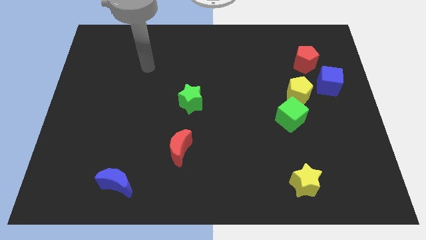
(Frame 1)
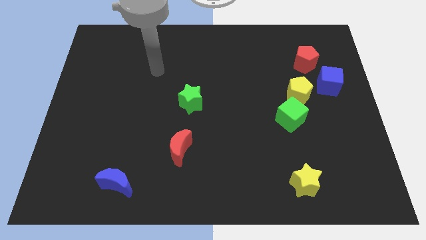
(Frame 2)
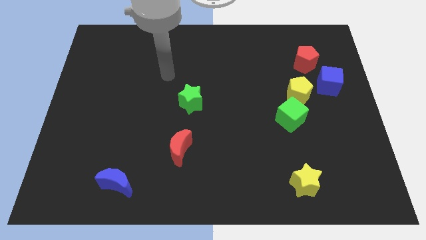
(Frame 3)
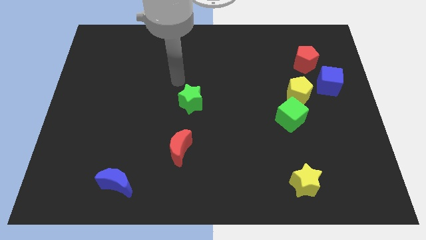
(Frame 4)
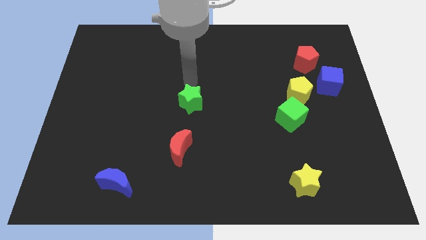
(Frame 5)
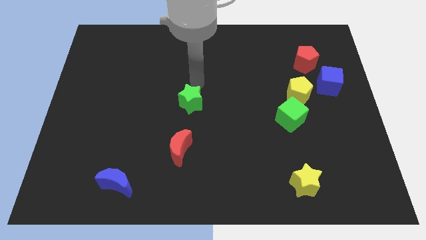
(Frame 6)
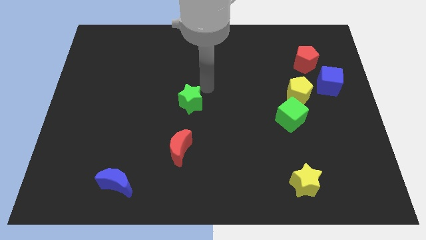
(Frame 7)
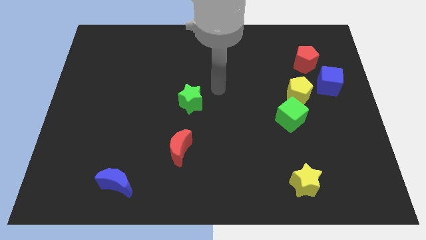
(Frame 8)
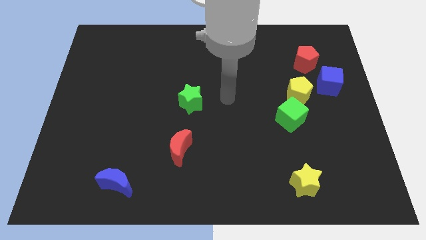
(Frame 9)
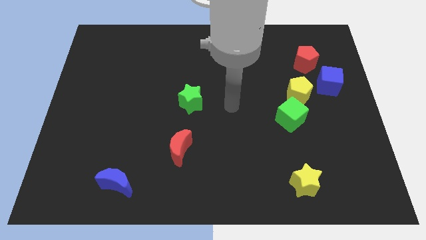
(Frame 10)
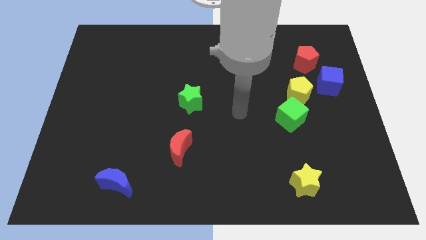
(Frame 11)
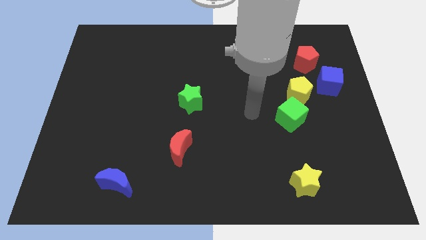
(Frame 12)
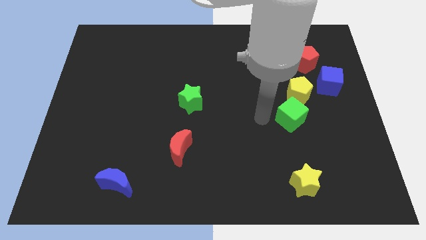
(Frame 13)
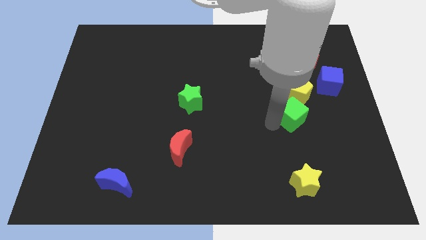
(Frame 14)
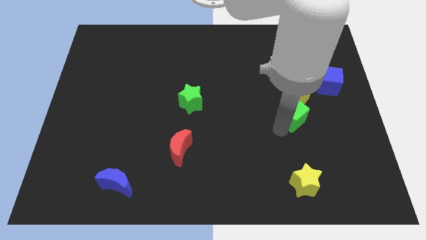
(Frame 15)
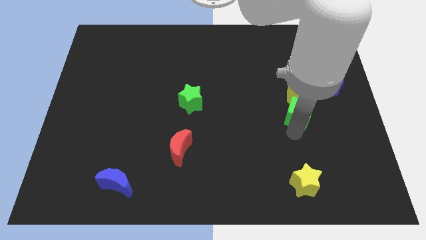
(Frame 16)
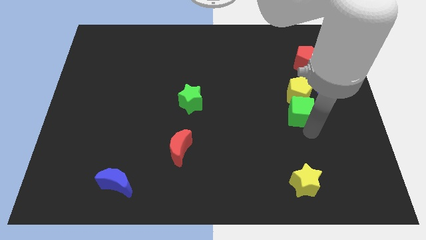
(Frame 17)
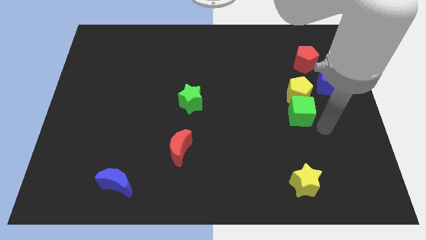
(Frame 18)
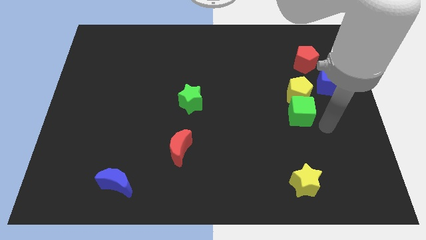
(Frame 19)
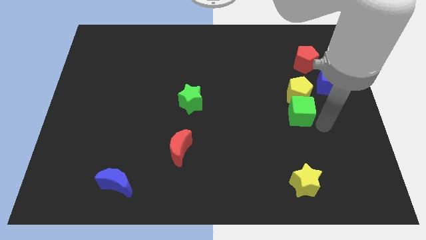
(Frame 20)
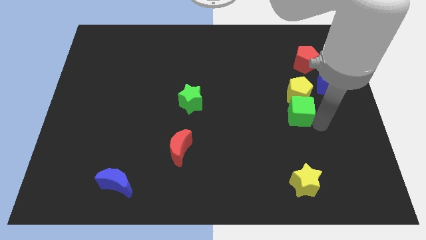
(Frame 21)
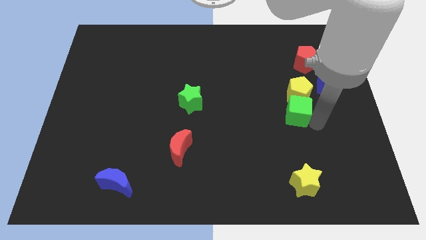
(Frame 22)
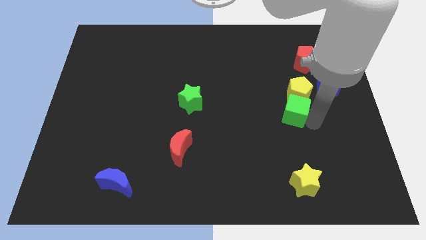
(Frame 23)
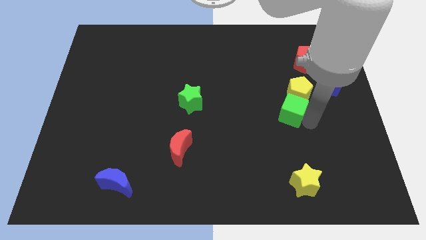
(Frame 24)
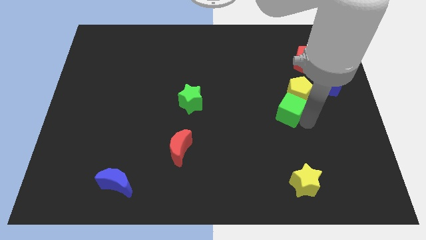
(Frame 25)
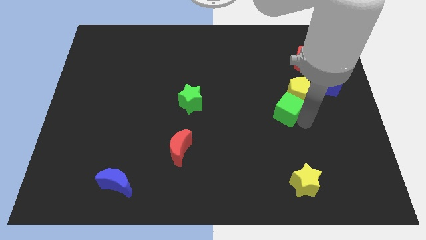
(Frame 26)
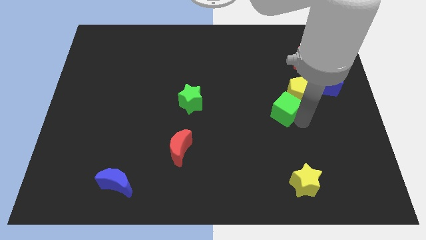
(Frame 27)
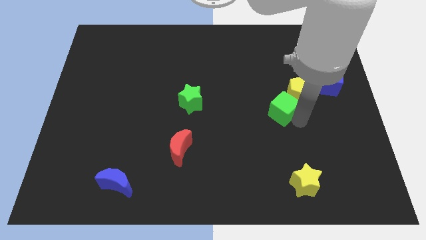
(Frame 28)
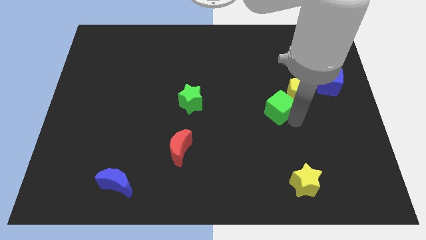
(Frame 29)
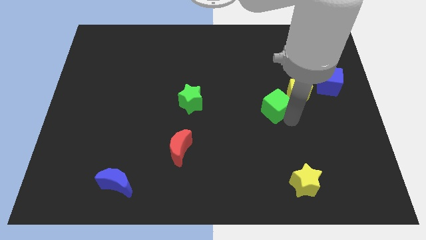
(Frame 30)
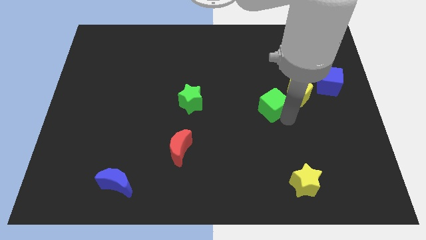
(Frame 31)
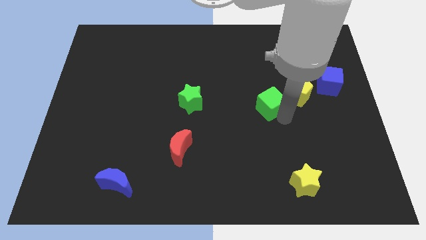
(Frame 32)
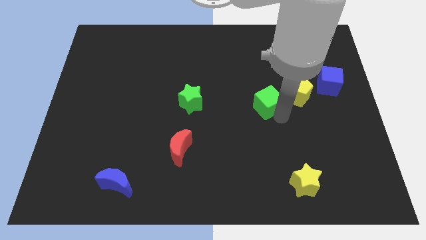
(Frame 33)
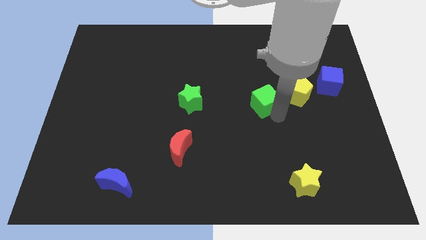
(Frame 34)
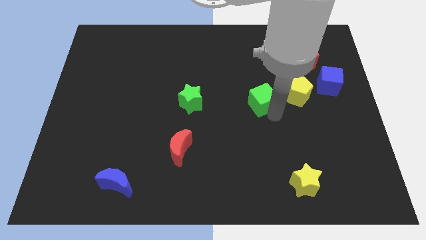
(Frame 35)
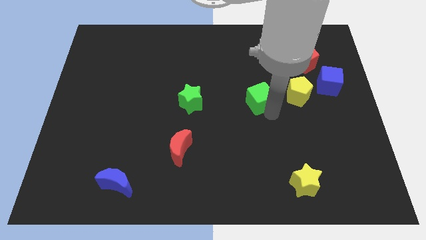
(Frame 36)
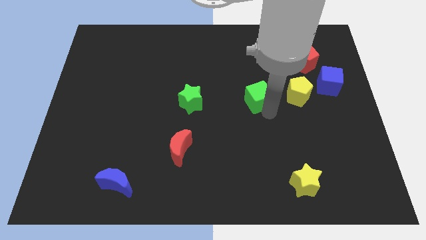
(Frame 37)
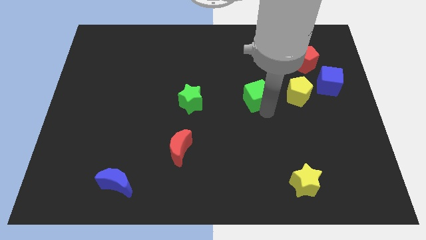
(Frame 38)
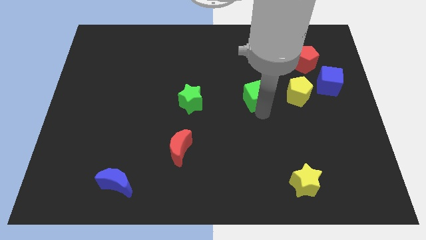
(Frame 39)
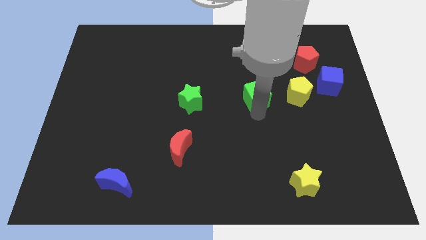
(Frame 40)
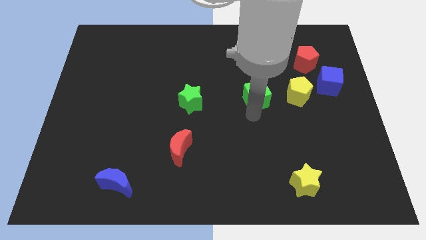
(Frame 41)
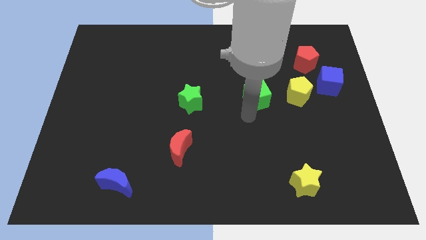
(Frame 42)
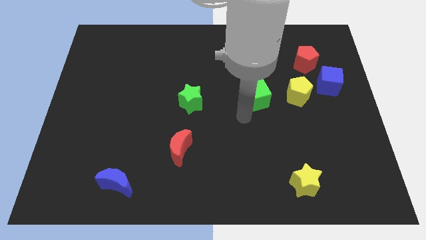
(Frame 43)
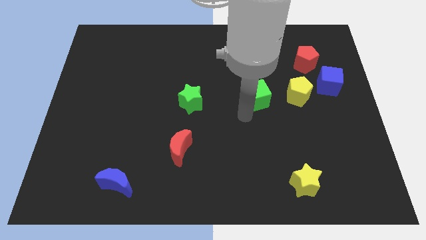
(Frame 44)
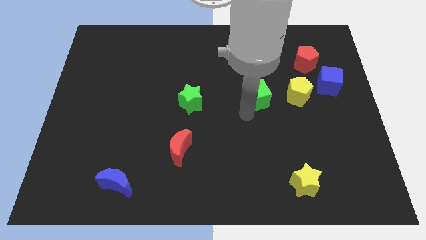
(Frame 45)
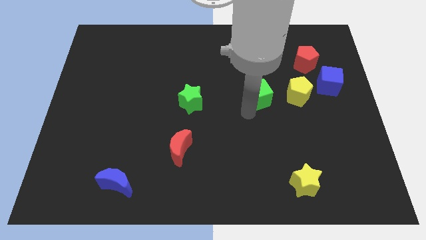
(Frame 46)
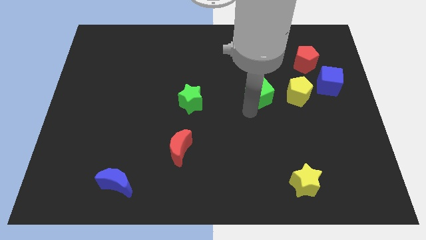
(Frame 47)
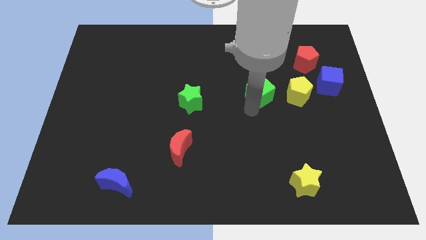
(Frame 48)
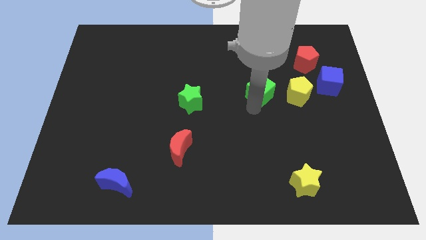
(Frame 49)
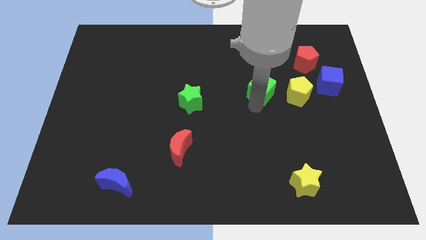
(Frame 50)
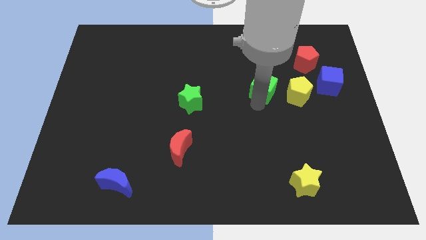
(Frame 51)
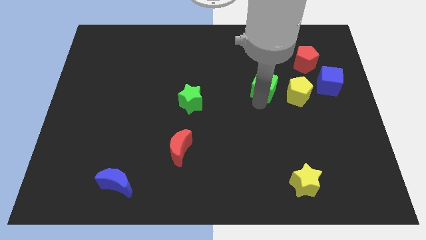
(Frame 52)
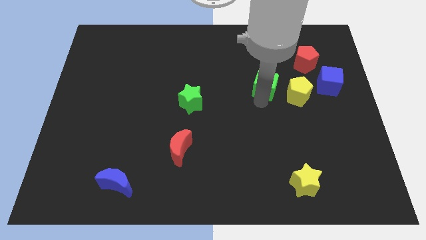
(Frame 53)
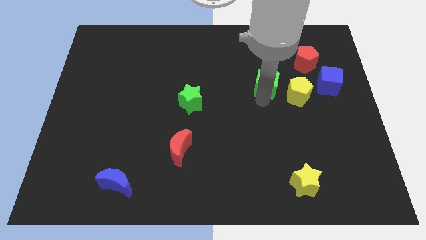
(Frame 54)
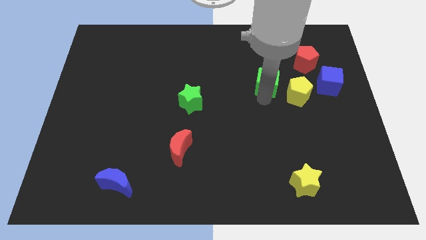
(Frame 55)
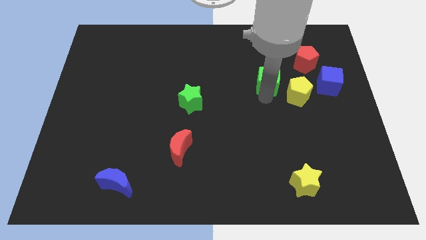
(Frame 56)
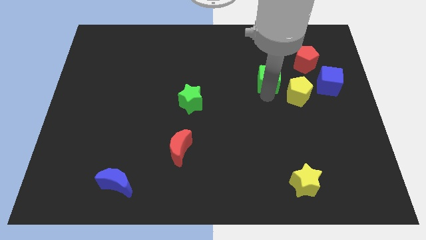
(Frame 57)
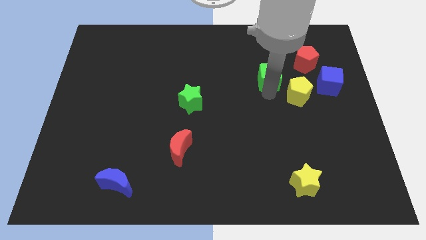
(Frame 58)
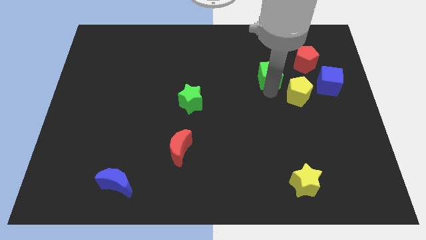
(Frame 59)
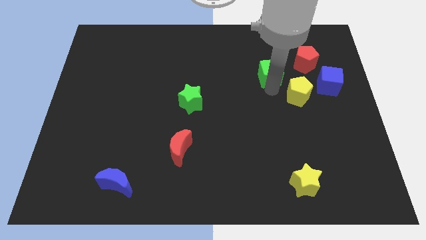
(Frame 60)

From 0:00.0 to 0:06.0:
put the green cube left of the red pentagon

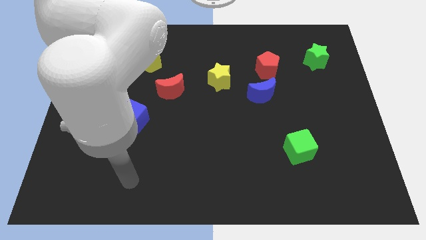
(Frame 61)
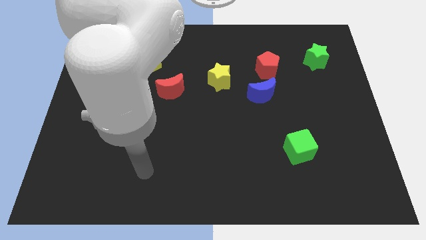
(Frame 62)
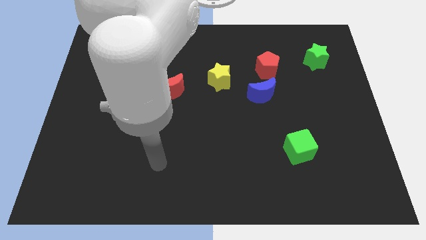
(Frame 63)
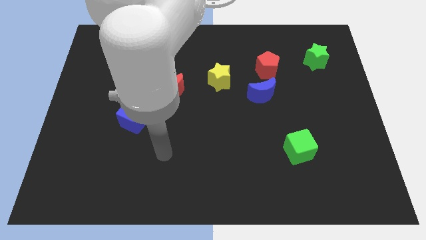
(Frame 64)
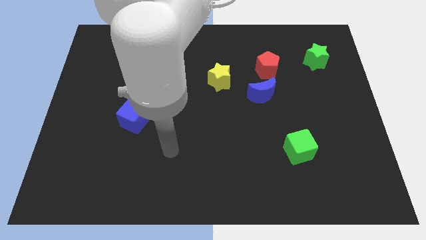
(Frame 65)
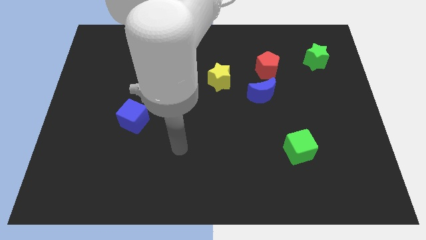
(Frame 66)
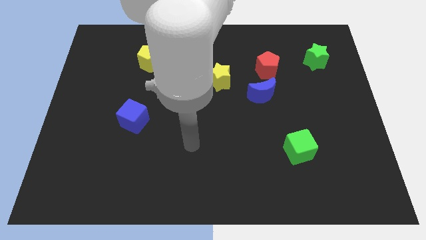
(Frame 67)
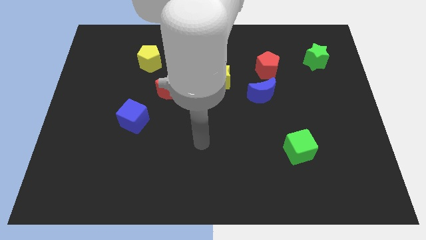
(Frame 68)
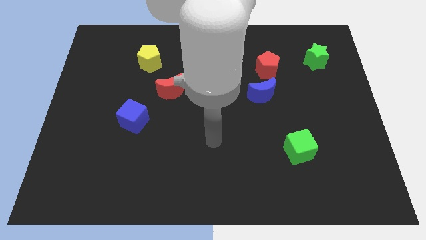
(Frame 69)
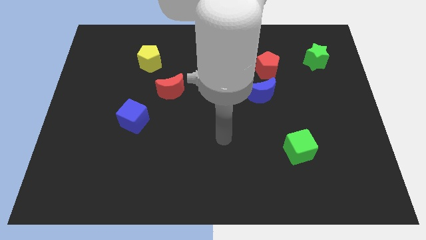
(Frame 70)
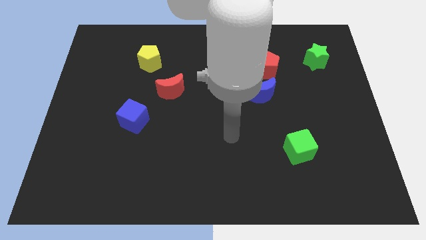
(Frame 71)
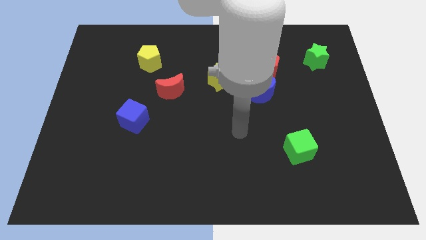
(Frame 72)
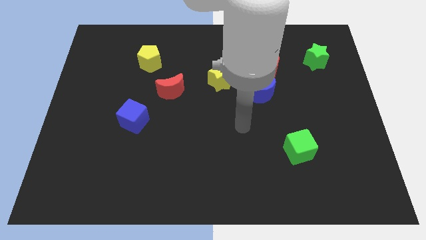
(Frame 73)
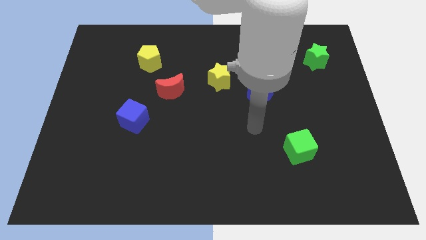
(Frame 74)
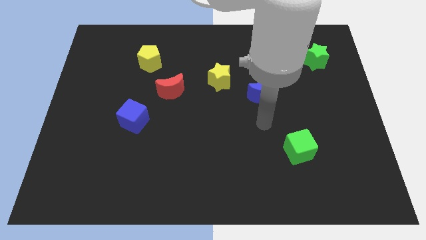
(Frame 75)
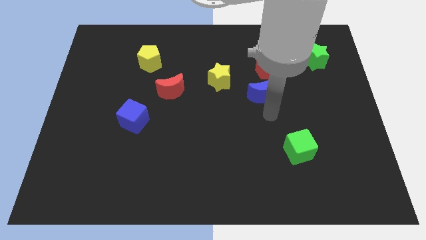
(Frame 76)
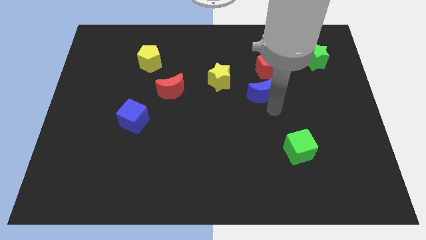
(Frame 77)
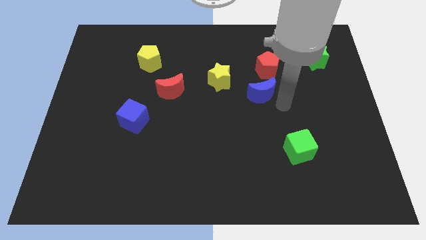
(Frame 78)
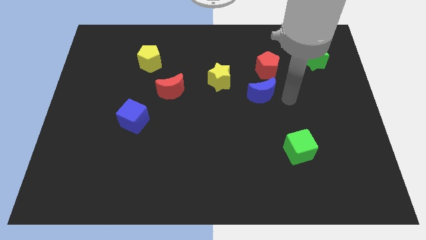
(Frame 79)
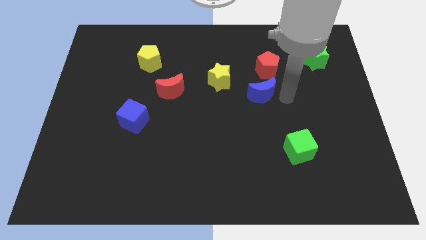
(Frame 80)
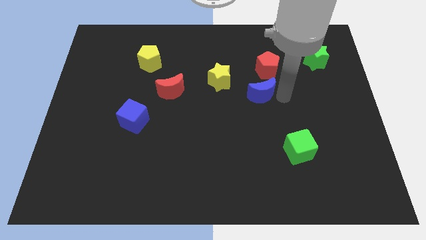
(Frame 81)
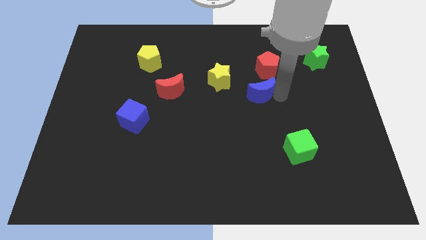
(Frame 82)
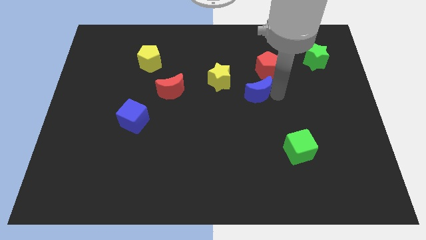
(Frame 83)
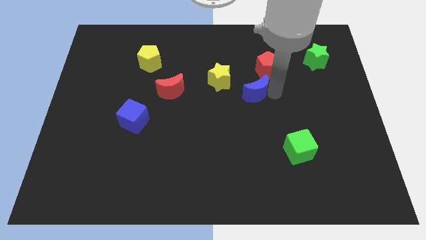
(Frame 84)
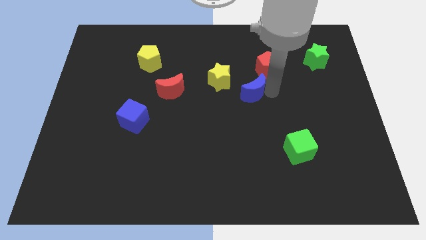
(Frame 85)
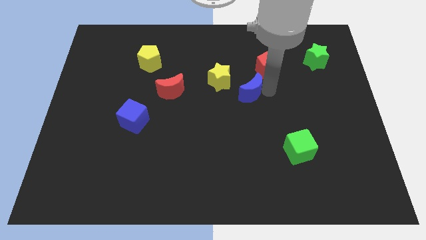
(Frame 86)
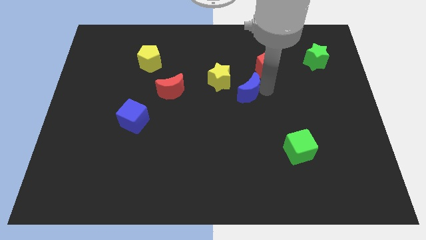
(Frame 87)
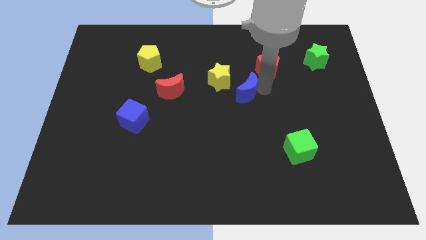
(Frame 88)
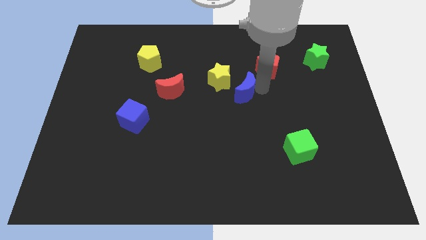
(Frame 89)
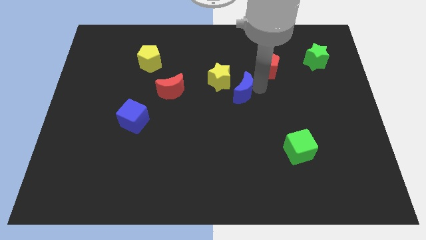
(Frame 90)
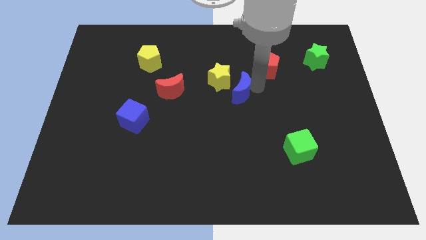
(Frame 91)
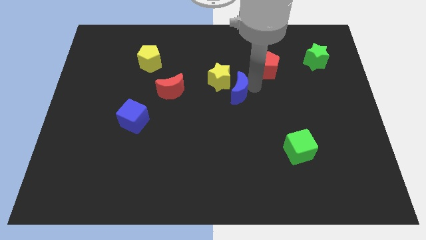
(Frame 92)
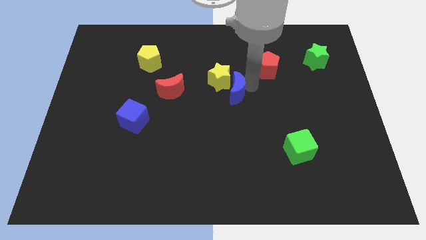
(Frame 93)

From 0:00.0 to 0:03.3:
push the blue moon just right of the red moon
